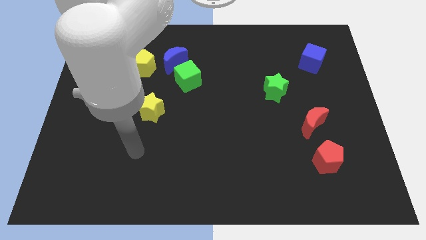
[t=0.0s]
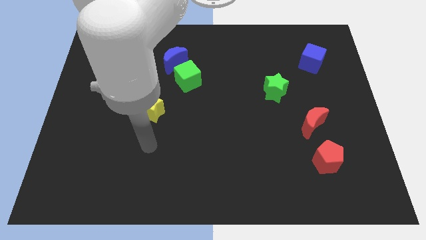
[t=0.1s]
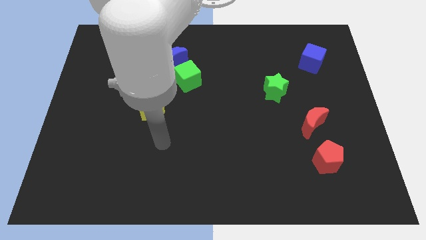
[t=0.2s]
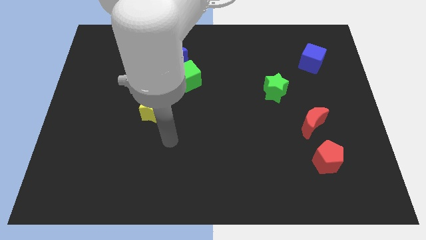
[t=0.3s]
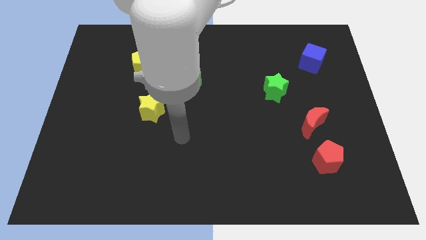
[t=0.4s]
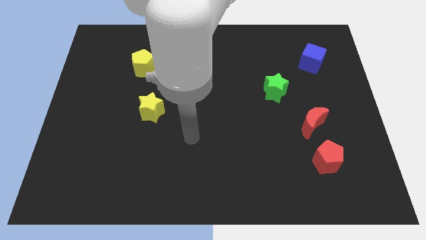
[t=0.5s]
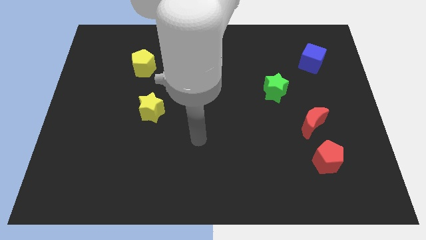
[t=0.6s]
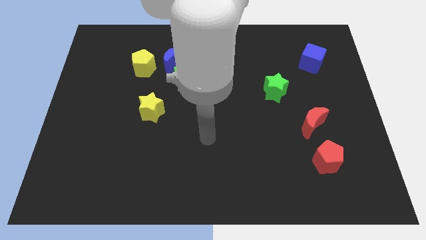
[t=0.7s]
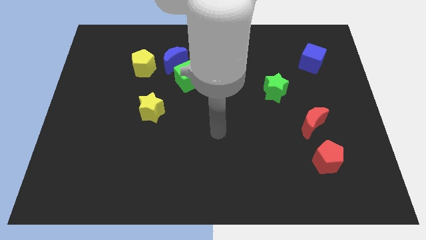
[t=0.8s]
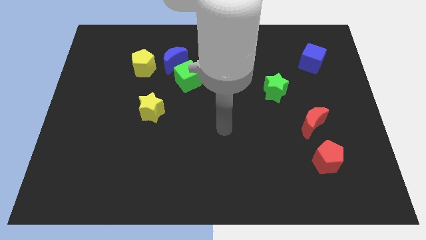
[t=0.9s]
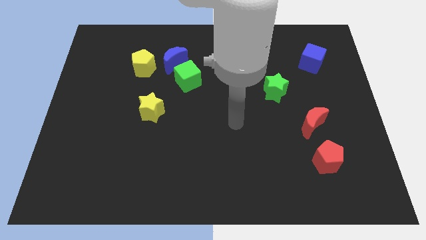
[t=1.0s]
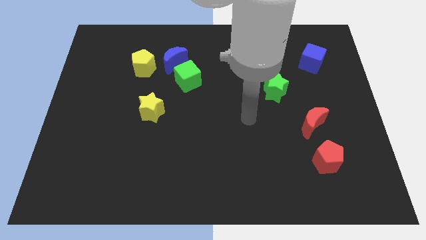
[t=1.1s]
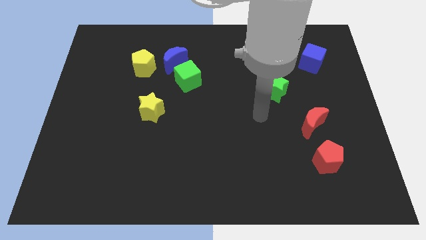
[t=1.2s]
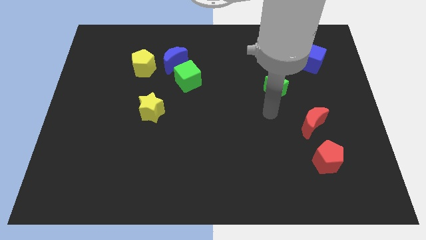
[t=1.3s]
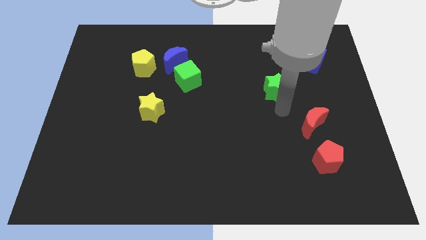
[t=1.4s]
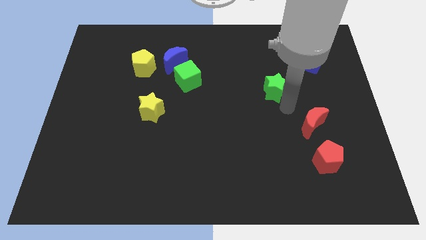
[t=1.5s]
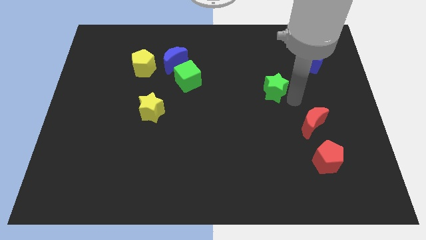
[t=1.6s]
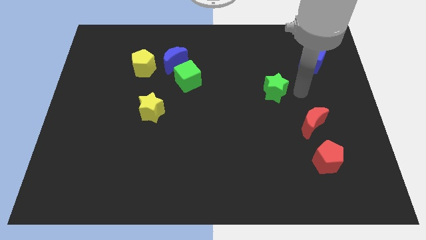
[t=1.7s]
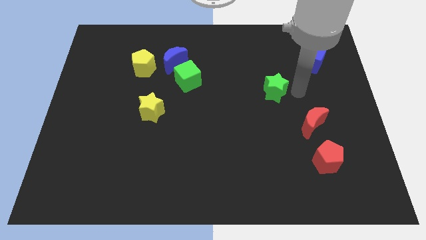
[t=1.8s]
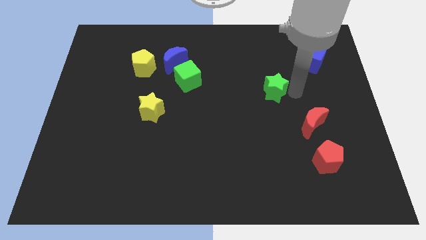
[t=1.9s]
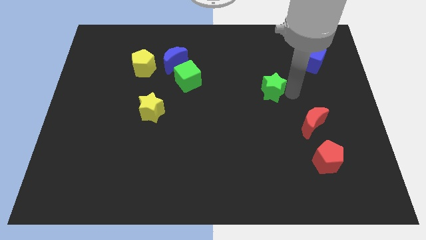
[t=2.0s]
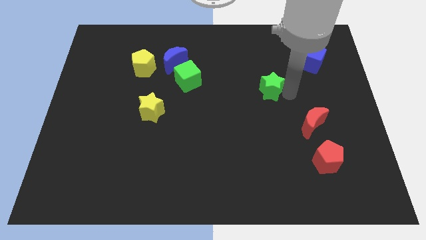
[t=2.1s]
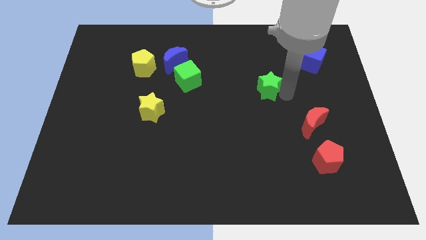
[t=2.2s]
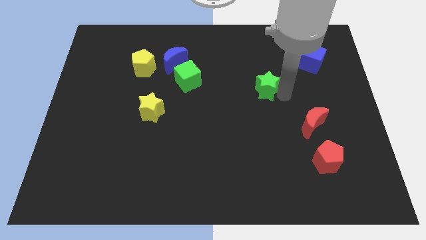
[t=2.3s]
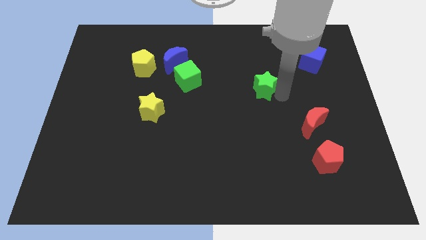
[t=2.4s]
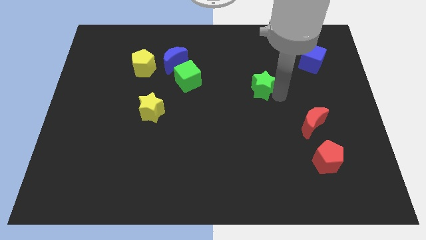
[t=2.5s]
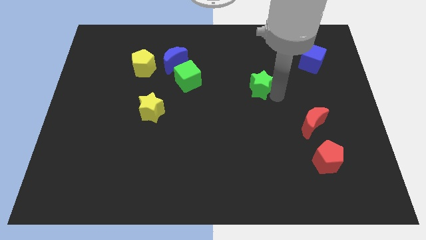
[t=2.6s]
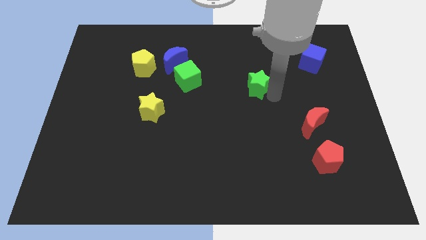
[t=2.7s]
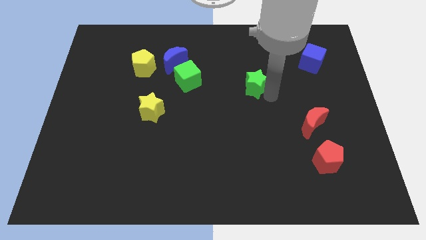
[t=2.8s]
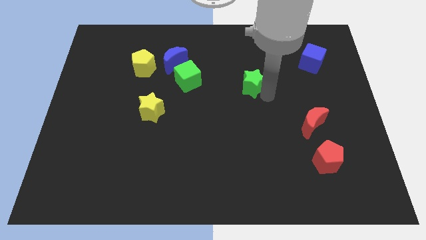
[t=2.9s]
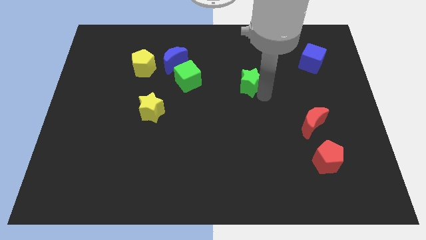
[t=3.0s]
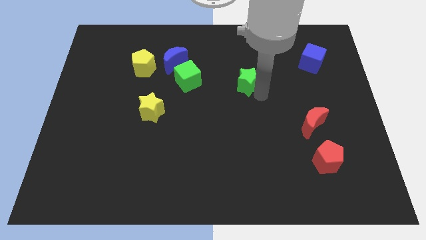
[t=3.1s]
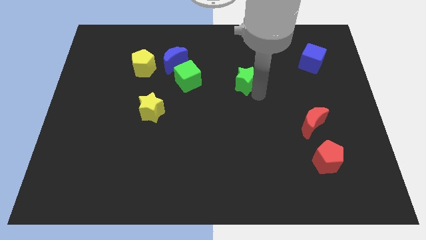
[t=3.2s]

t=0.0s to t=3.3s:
move the green star a bit to the left

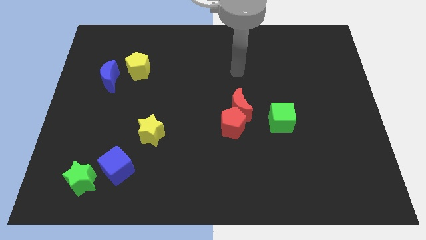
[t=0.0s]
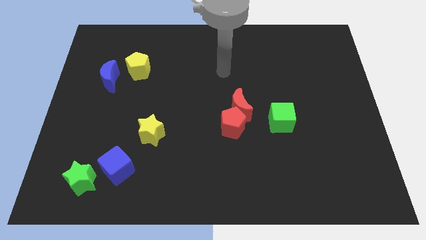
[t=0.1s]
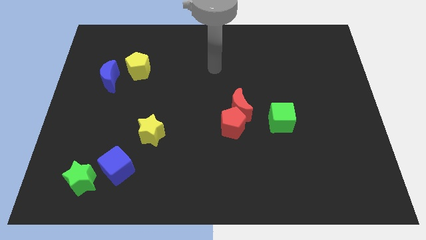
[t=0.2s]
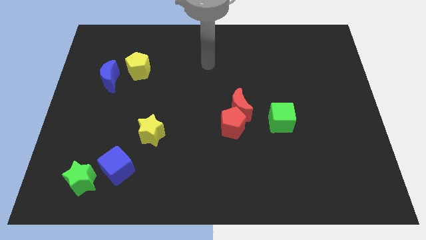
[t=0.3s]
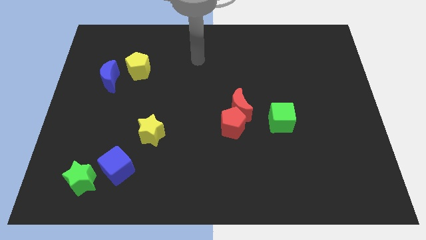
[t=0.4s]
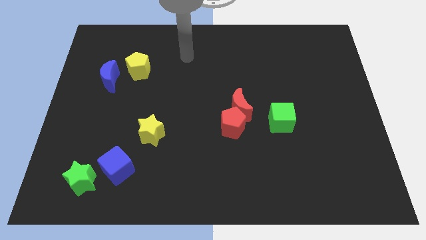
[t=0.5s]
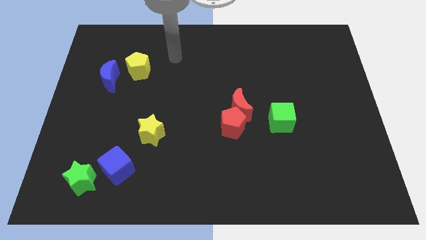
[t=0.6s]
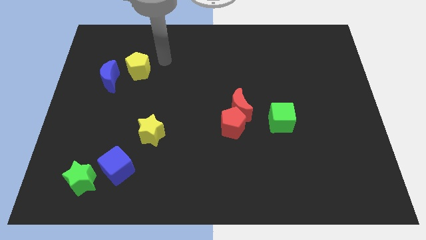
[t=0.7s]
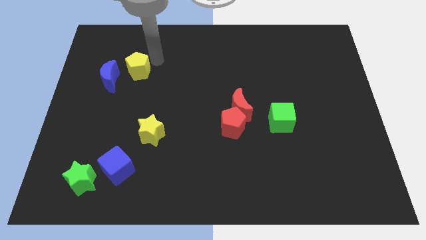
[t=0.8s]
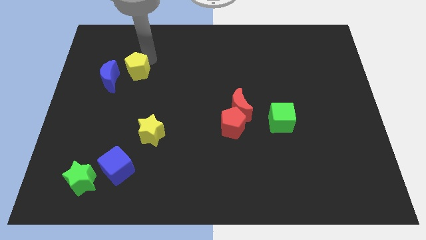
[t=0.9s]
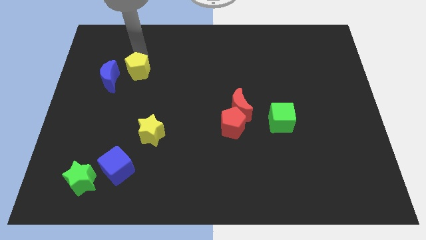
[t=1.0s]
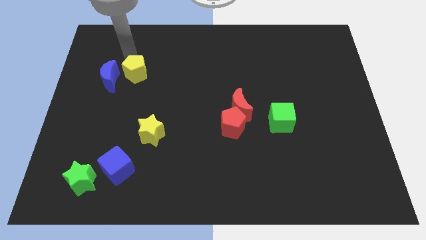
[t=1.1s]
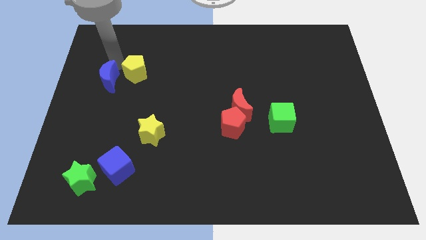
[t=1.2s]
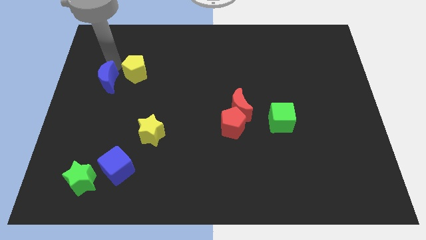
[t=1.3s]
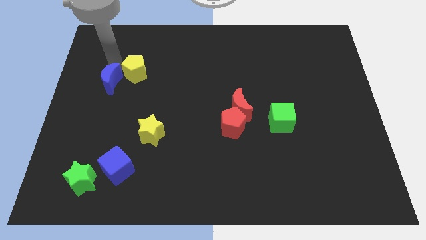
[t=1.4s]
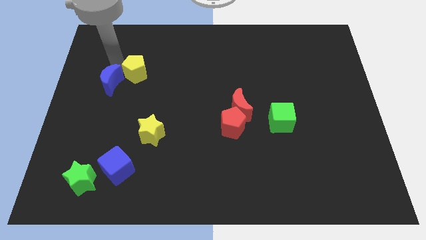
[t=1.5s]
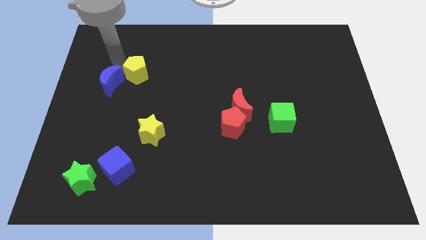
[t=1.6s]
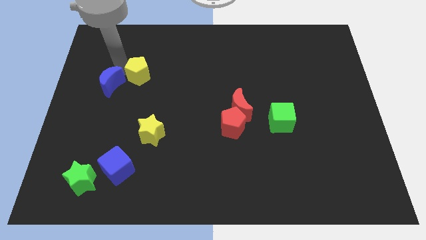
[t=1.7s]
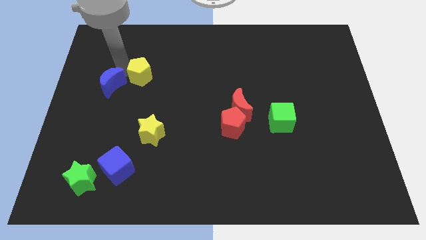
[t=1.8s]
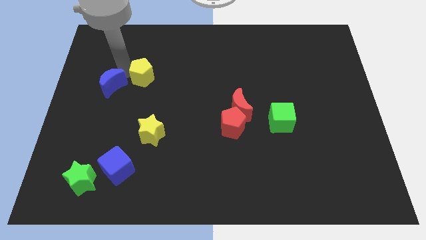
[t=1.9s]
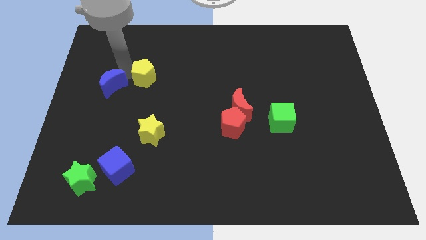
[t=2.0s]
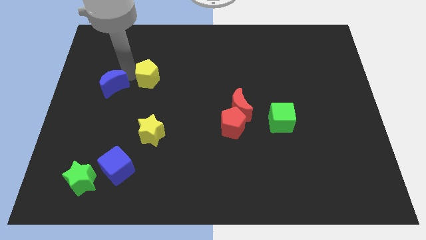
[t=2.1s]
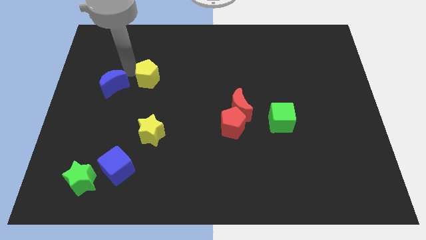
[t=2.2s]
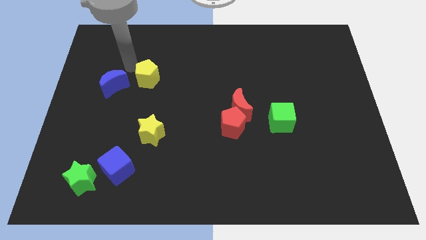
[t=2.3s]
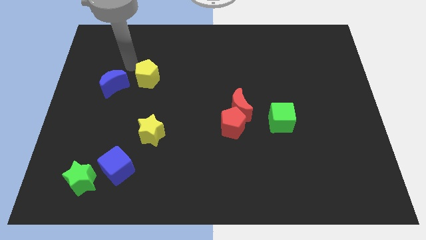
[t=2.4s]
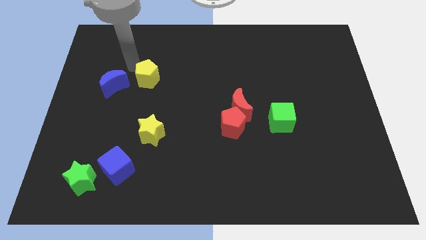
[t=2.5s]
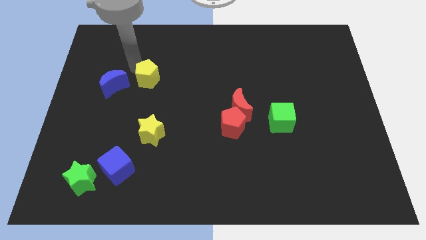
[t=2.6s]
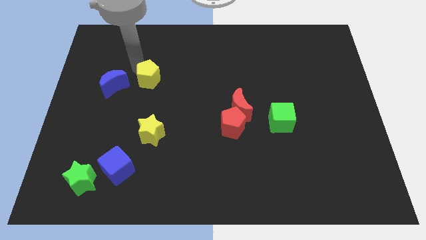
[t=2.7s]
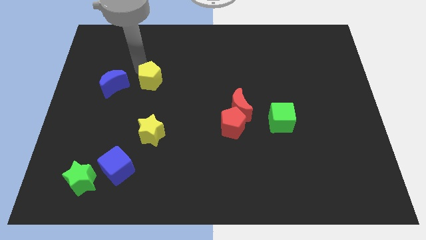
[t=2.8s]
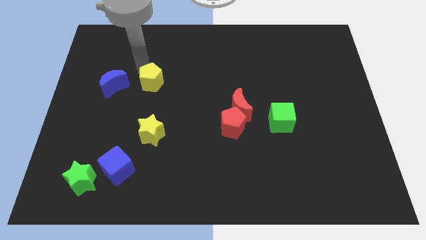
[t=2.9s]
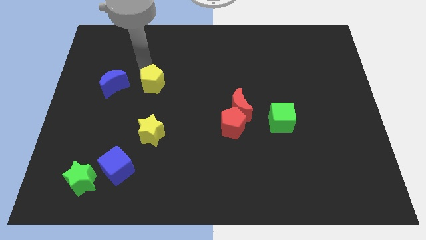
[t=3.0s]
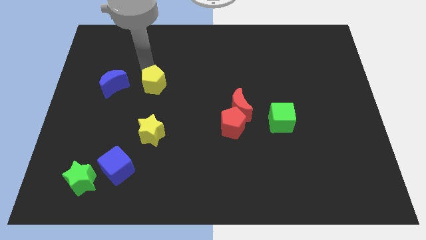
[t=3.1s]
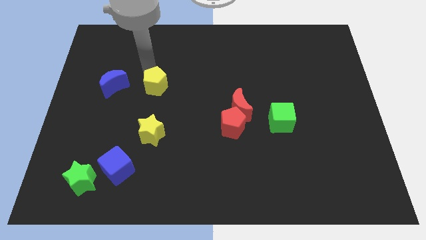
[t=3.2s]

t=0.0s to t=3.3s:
move the yellow pentagon downwards and right a bit

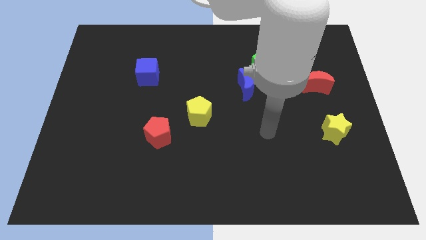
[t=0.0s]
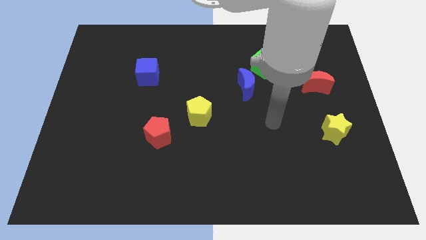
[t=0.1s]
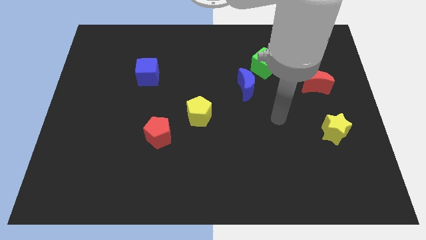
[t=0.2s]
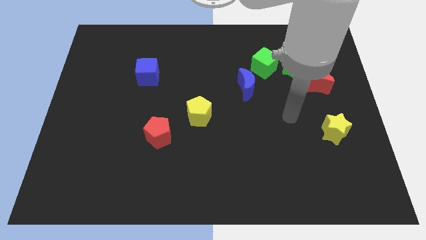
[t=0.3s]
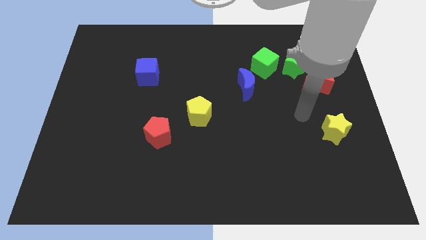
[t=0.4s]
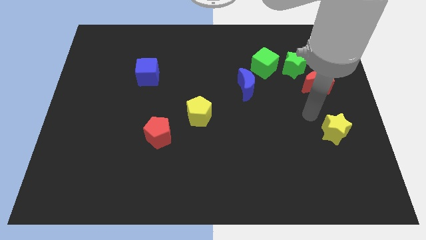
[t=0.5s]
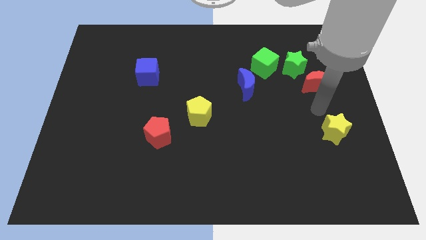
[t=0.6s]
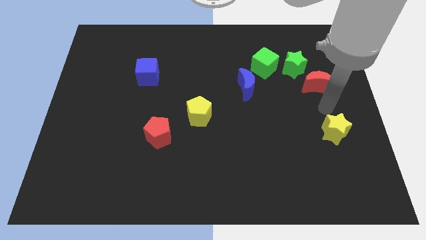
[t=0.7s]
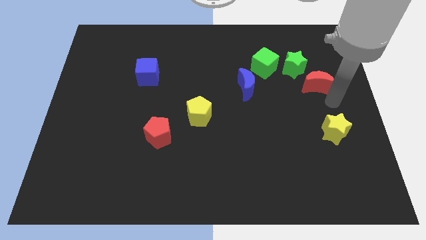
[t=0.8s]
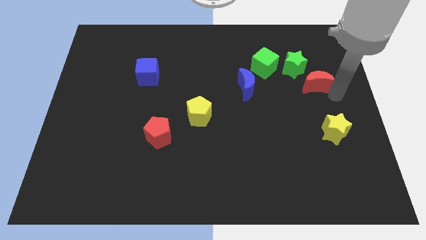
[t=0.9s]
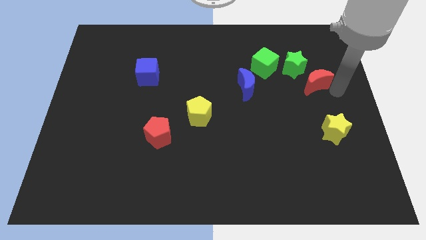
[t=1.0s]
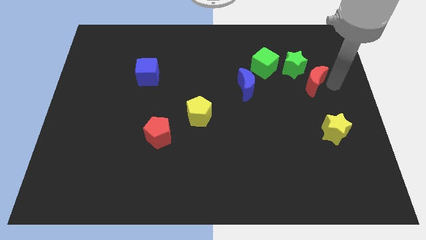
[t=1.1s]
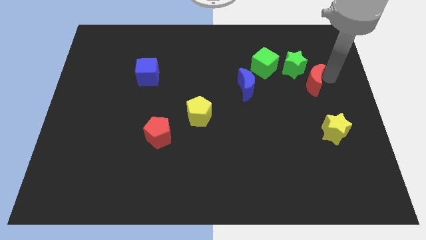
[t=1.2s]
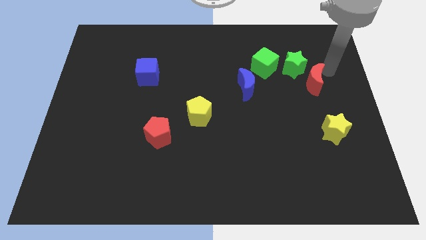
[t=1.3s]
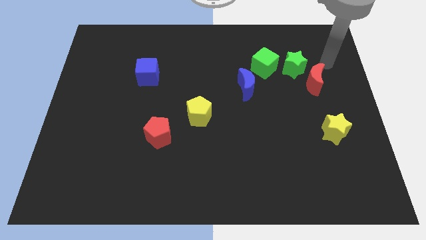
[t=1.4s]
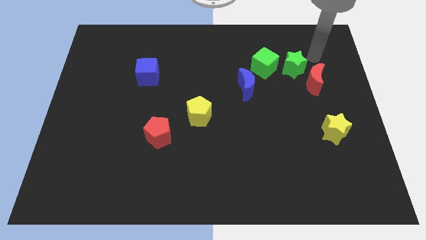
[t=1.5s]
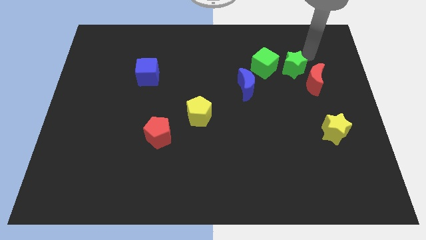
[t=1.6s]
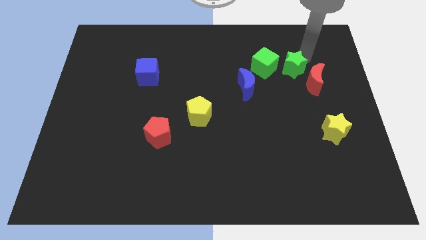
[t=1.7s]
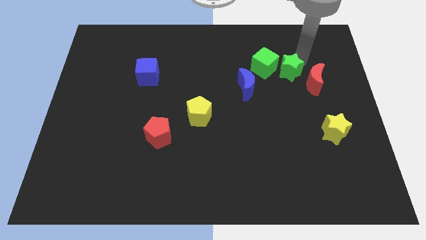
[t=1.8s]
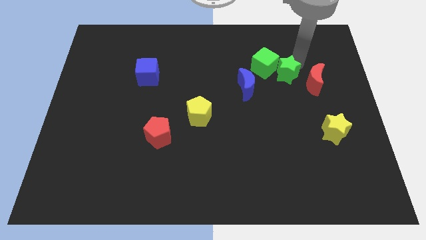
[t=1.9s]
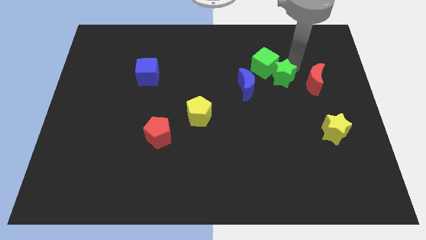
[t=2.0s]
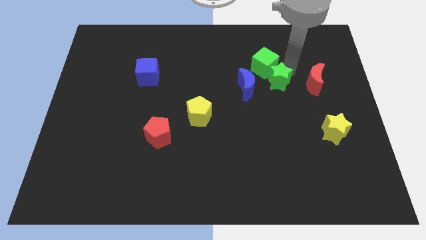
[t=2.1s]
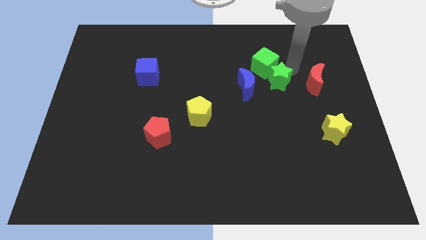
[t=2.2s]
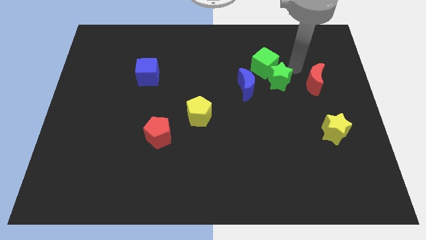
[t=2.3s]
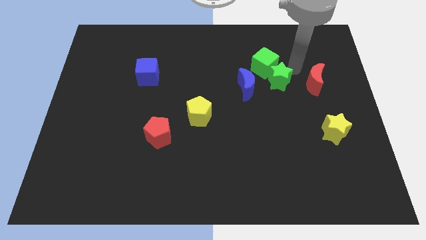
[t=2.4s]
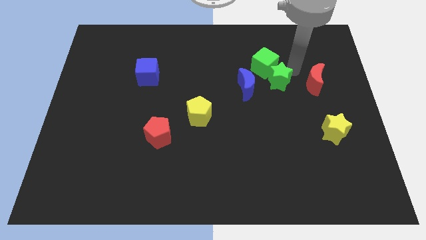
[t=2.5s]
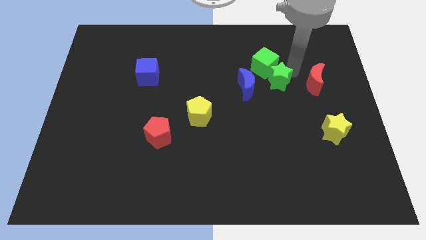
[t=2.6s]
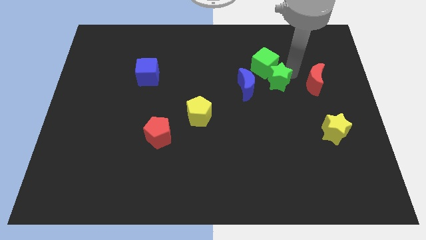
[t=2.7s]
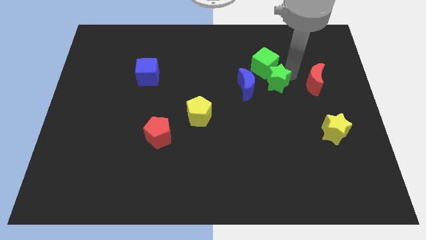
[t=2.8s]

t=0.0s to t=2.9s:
push the green star somewhat down and then left
